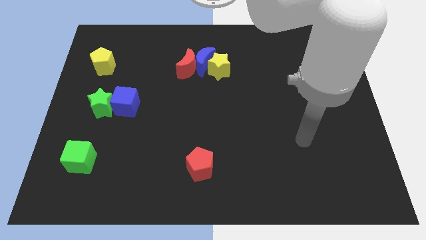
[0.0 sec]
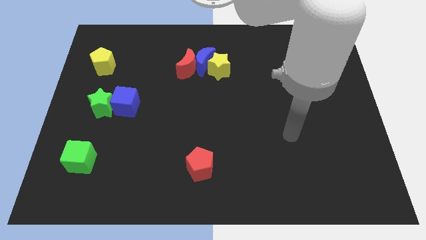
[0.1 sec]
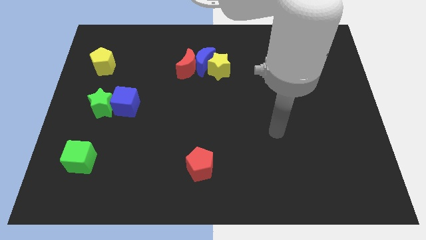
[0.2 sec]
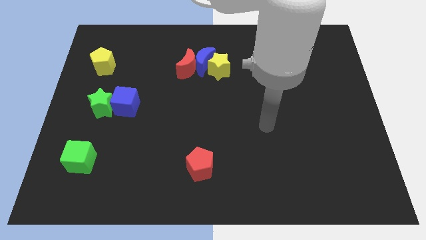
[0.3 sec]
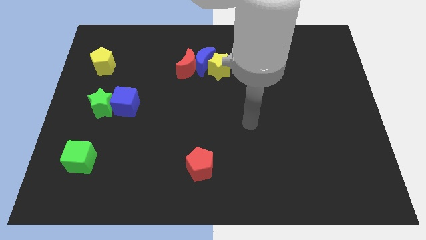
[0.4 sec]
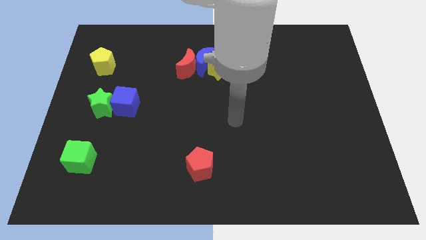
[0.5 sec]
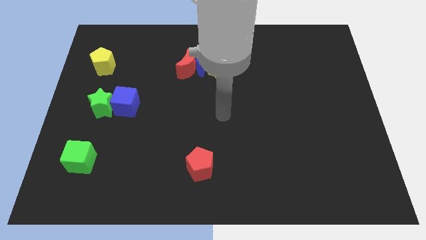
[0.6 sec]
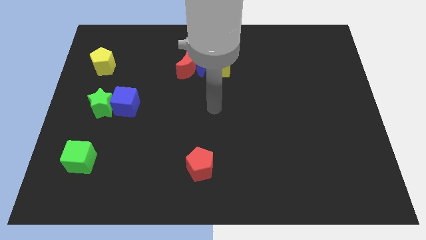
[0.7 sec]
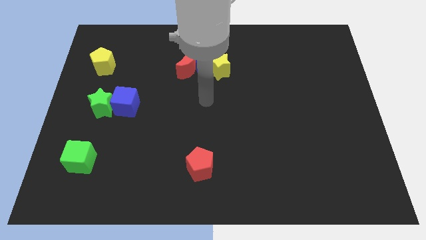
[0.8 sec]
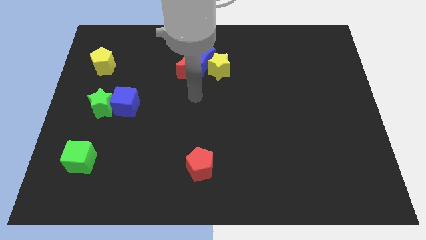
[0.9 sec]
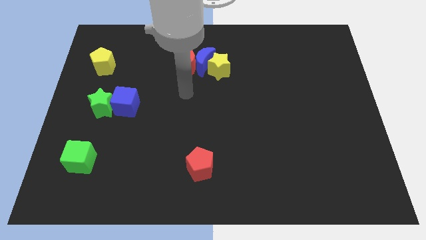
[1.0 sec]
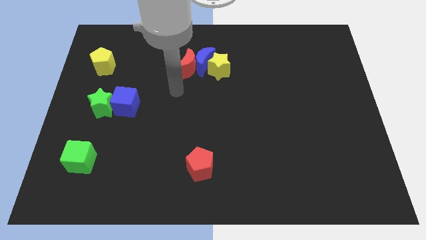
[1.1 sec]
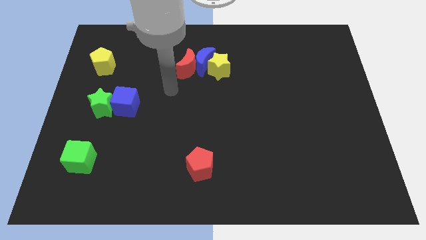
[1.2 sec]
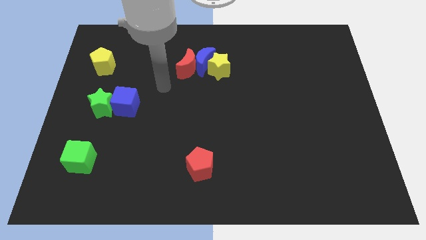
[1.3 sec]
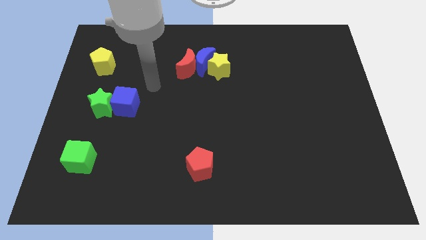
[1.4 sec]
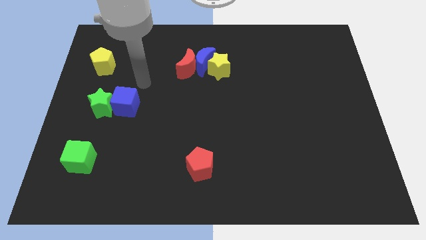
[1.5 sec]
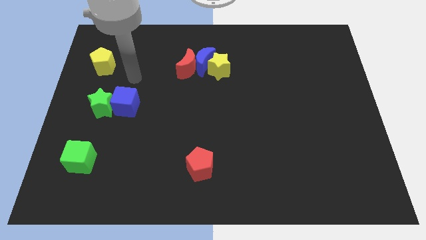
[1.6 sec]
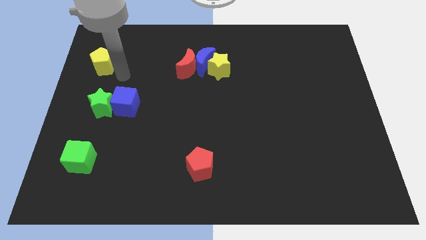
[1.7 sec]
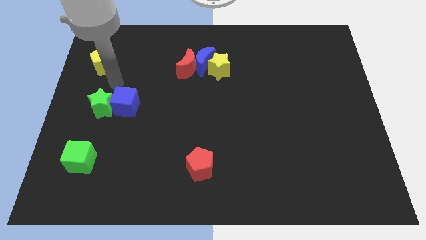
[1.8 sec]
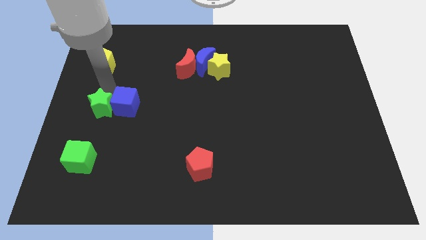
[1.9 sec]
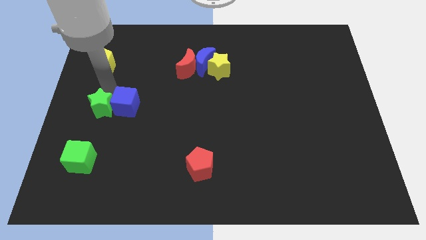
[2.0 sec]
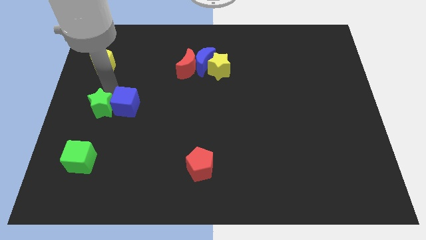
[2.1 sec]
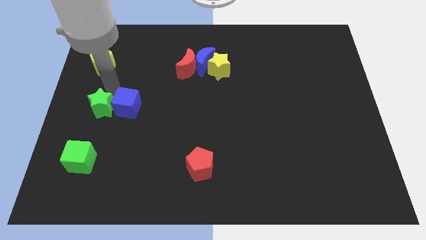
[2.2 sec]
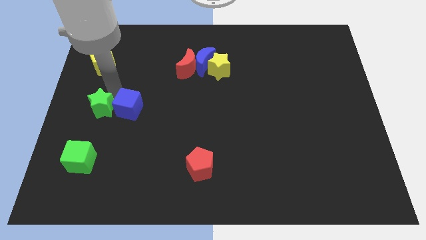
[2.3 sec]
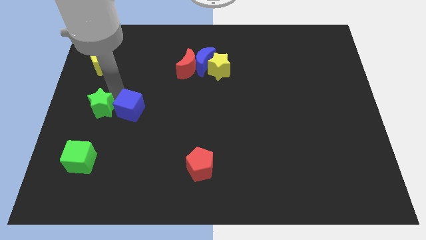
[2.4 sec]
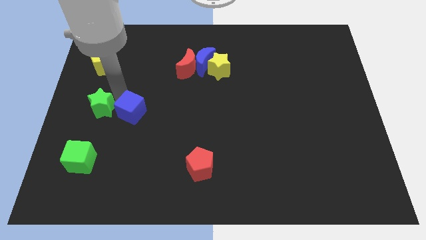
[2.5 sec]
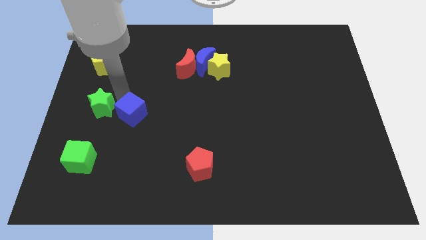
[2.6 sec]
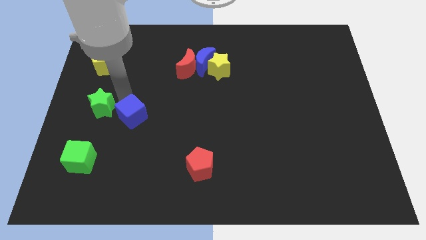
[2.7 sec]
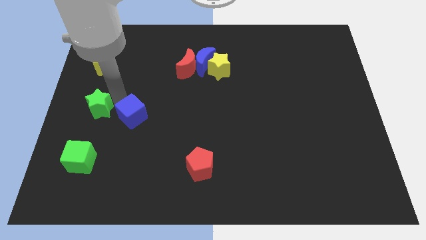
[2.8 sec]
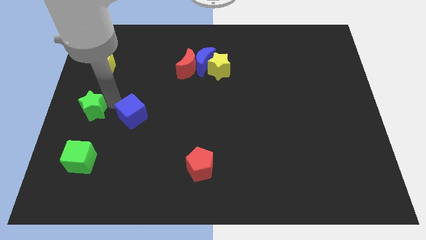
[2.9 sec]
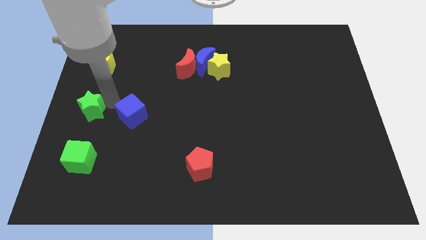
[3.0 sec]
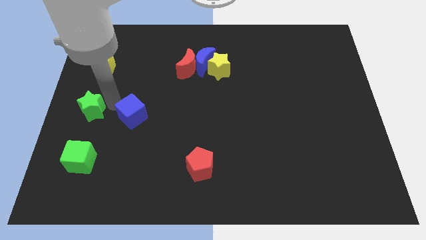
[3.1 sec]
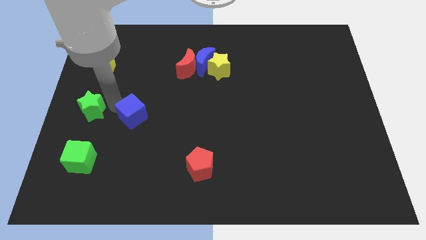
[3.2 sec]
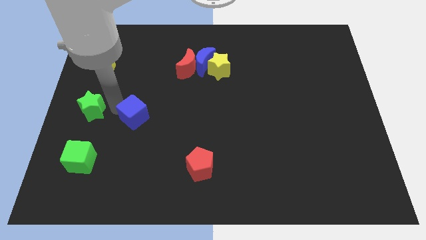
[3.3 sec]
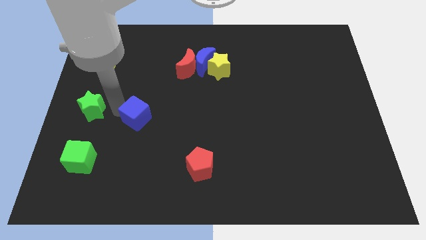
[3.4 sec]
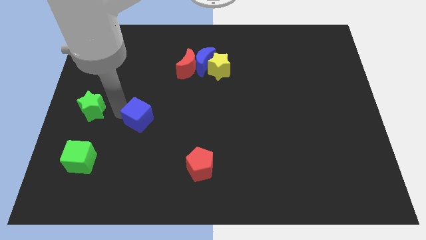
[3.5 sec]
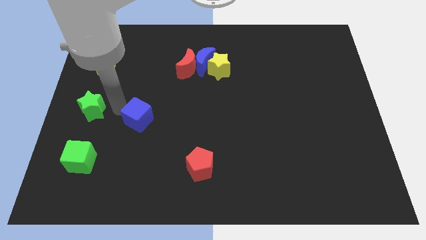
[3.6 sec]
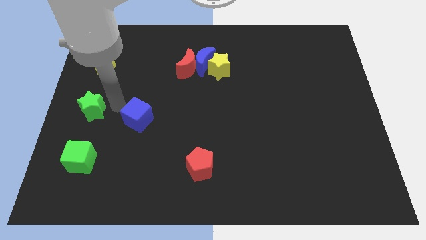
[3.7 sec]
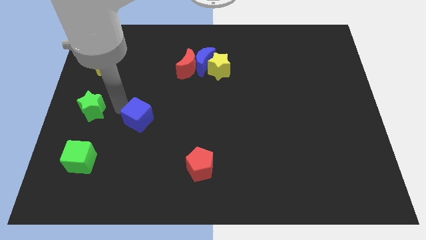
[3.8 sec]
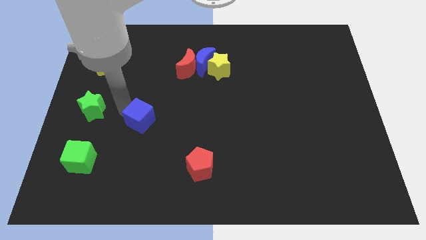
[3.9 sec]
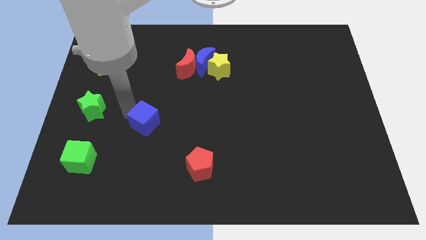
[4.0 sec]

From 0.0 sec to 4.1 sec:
push the blue cube downwards and to the right diagonally slightly

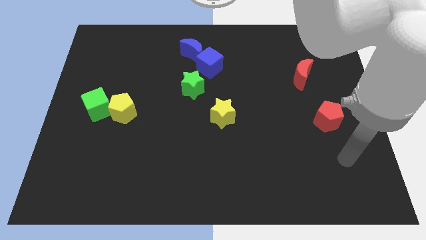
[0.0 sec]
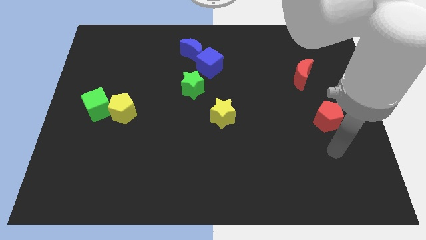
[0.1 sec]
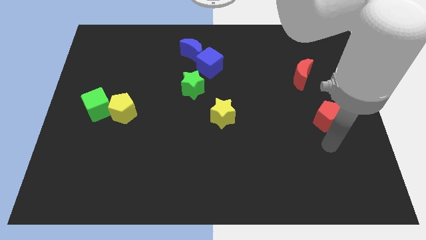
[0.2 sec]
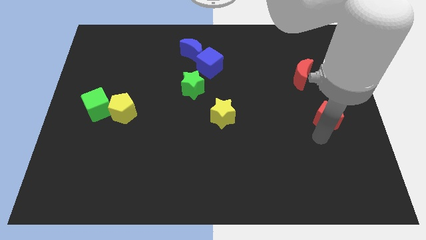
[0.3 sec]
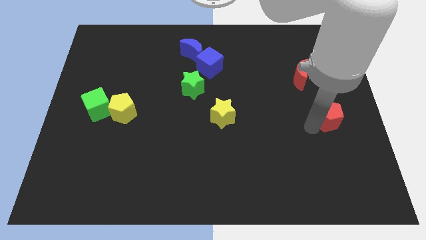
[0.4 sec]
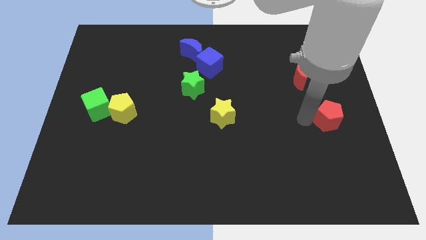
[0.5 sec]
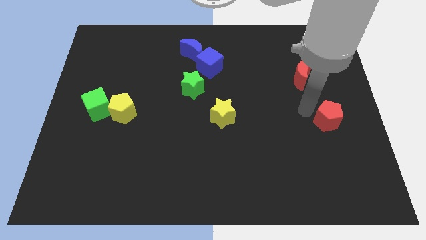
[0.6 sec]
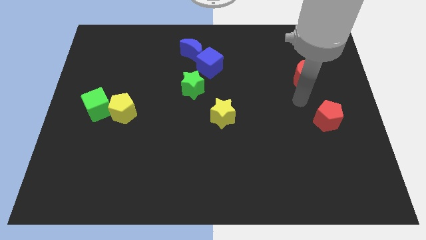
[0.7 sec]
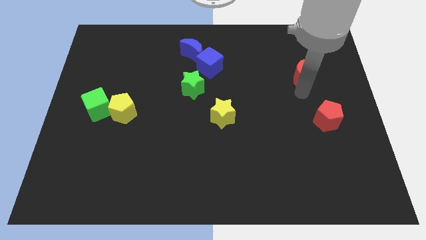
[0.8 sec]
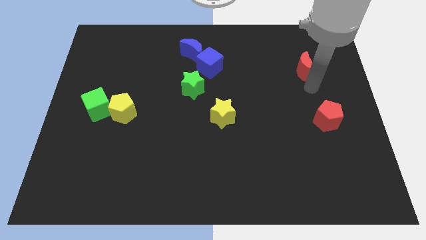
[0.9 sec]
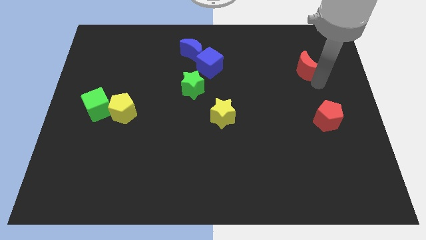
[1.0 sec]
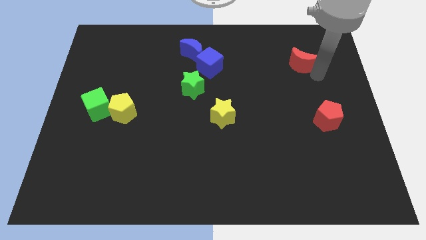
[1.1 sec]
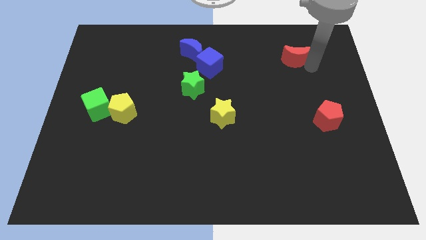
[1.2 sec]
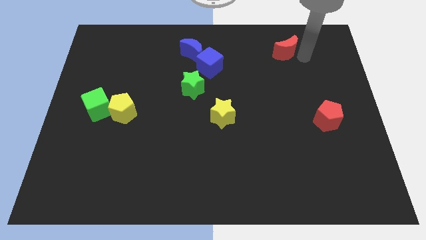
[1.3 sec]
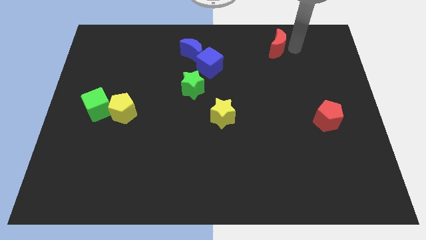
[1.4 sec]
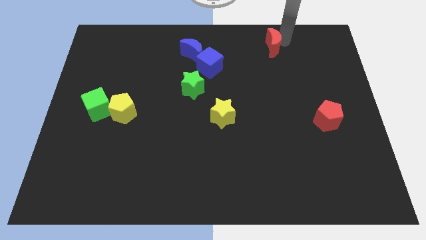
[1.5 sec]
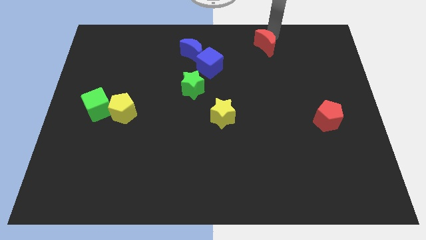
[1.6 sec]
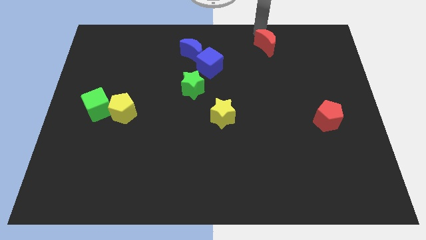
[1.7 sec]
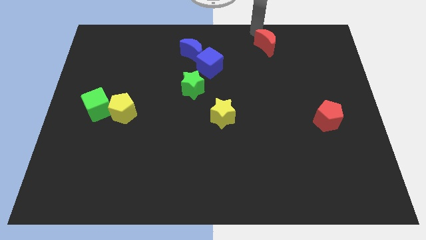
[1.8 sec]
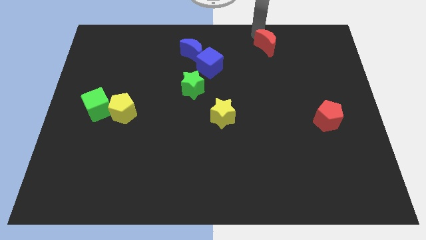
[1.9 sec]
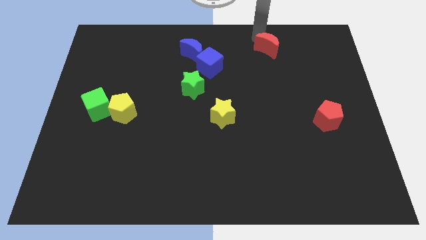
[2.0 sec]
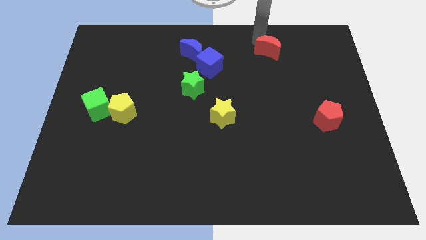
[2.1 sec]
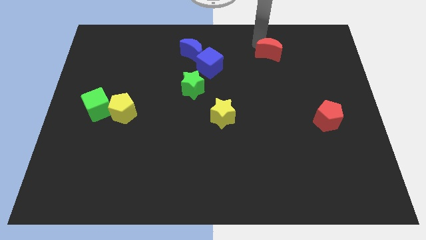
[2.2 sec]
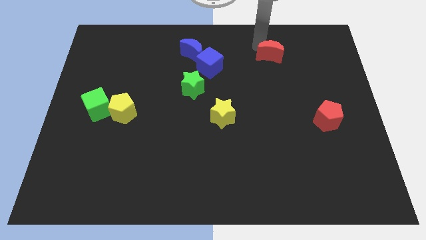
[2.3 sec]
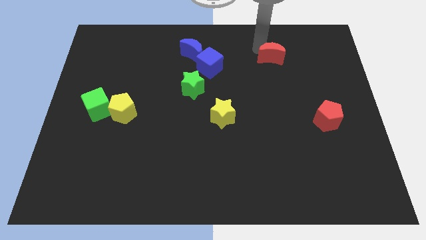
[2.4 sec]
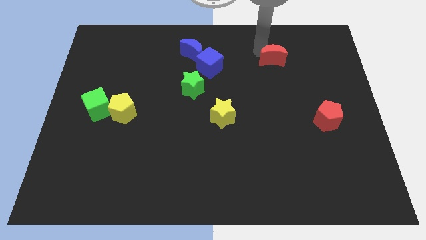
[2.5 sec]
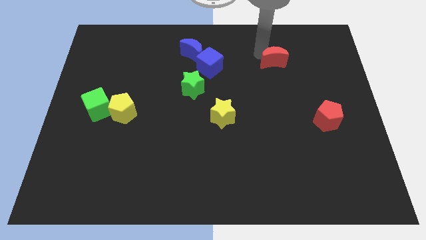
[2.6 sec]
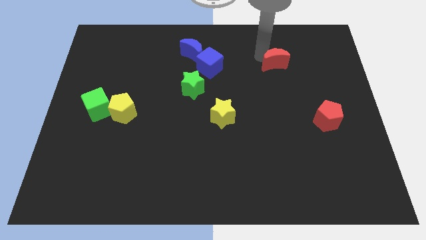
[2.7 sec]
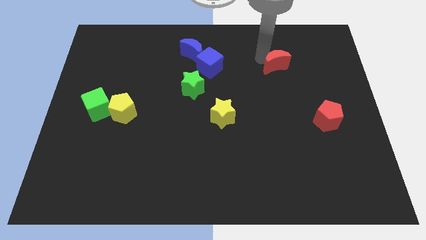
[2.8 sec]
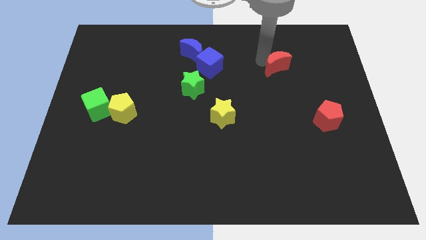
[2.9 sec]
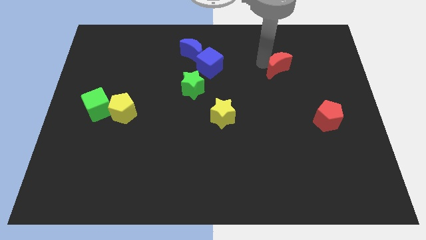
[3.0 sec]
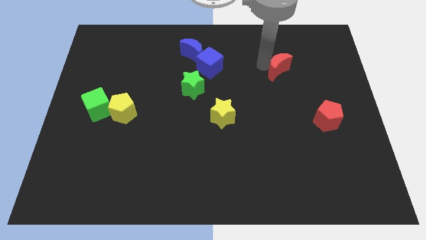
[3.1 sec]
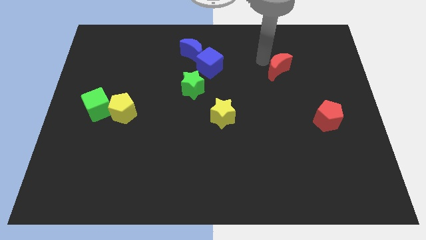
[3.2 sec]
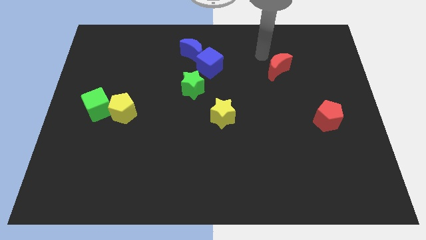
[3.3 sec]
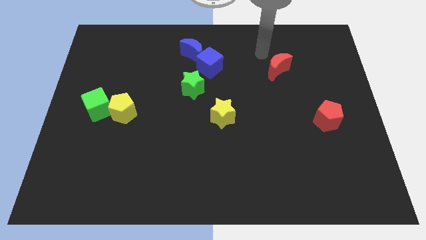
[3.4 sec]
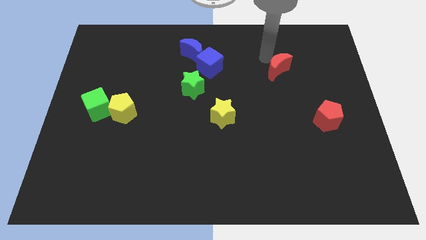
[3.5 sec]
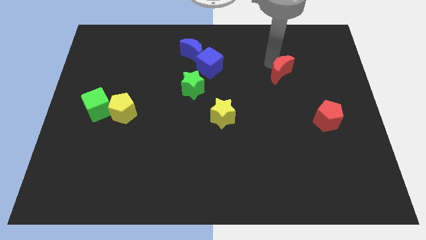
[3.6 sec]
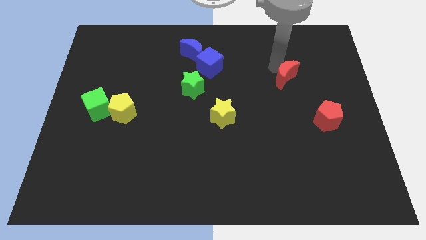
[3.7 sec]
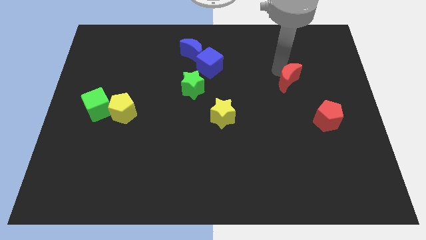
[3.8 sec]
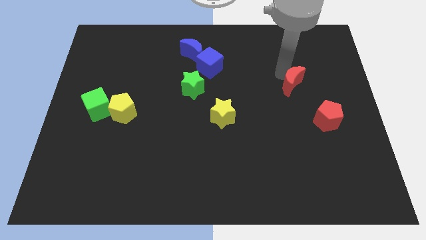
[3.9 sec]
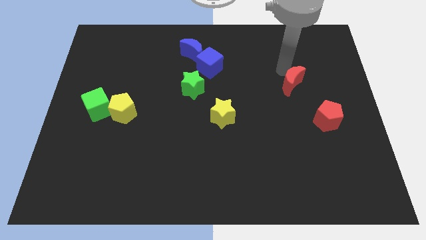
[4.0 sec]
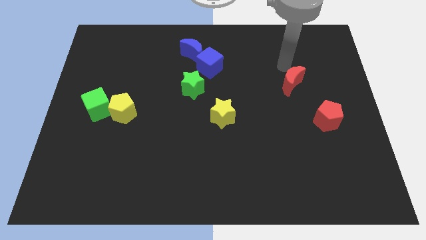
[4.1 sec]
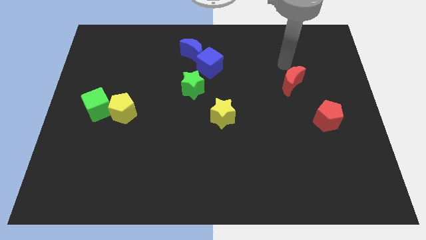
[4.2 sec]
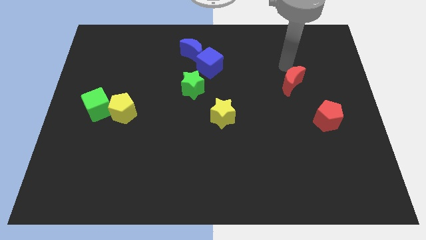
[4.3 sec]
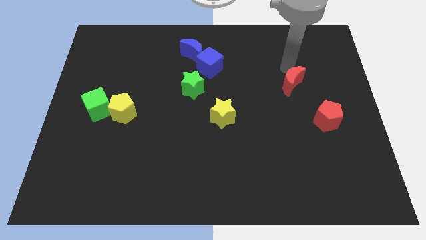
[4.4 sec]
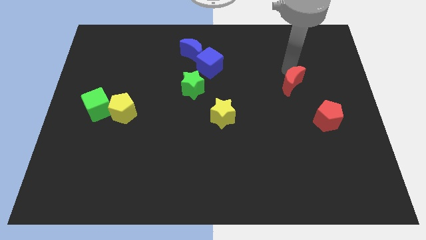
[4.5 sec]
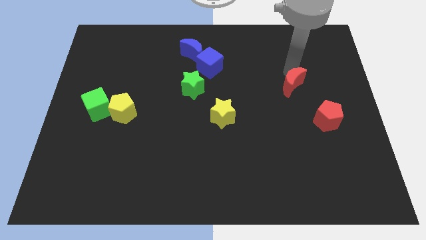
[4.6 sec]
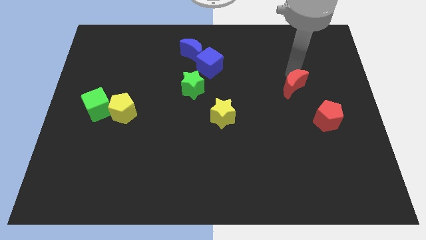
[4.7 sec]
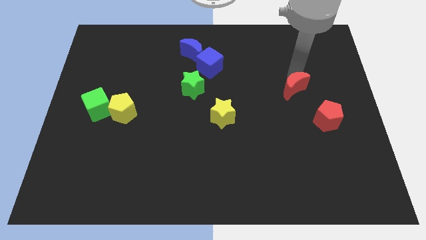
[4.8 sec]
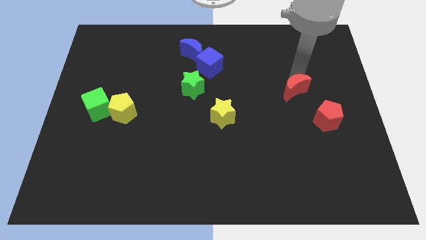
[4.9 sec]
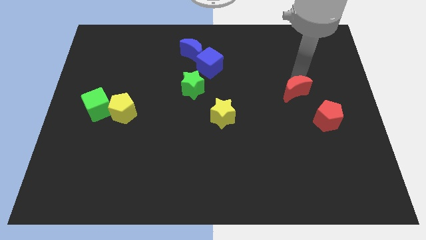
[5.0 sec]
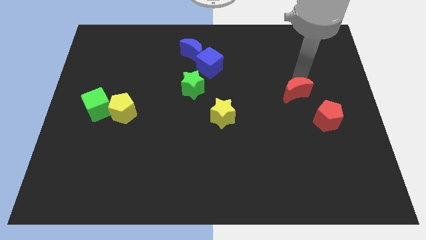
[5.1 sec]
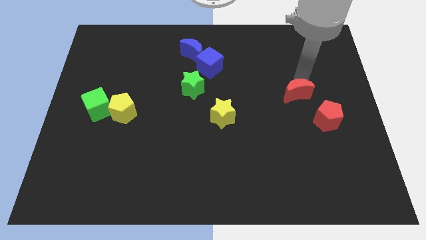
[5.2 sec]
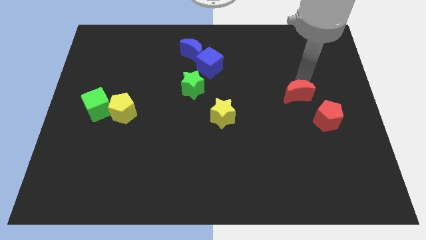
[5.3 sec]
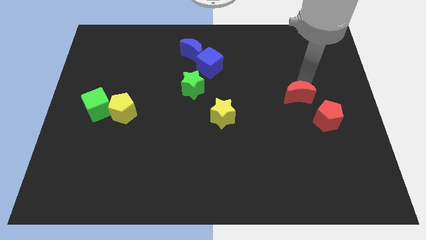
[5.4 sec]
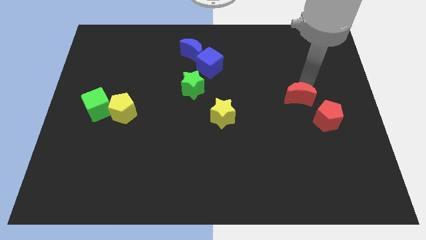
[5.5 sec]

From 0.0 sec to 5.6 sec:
slightly slide the red moon down
